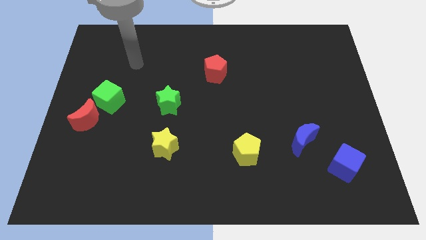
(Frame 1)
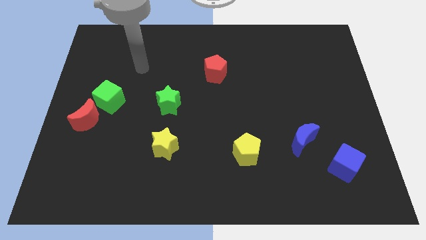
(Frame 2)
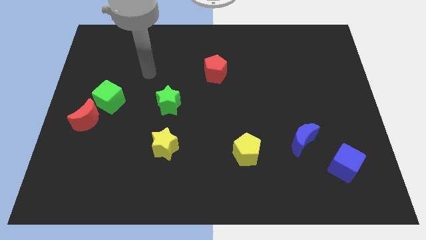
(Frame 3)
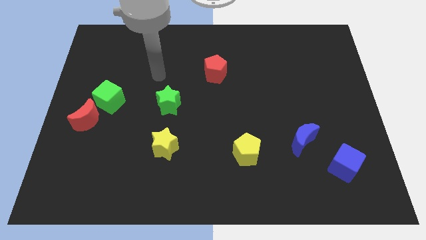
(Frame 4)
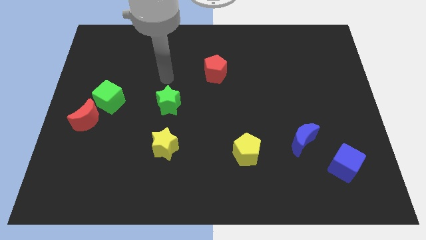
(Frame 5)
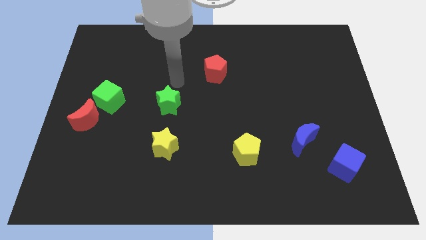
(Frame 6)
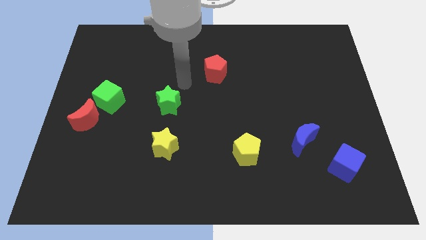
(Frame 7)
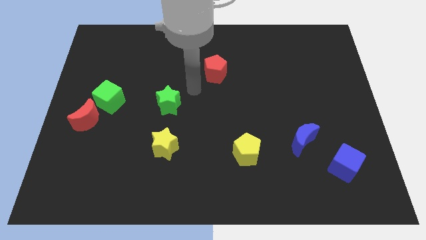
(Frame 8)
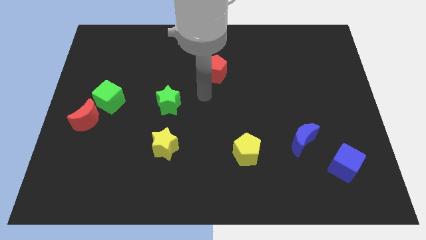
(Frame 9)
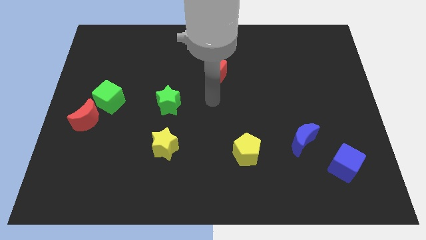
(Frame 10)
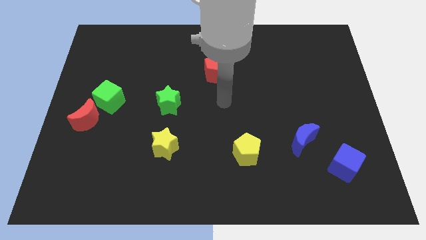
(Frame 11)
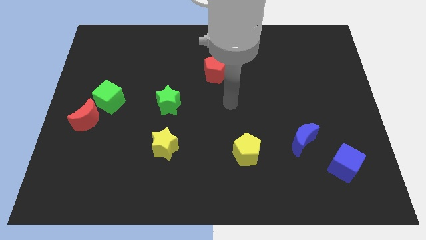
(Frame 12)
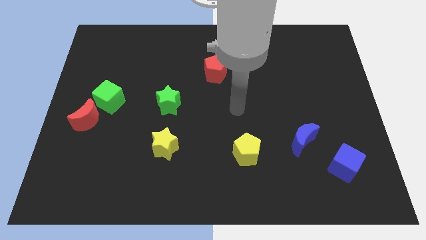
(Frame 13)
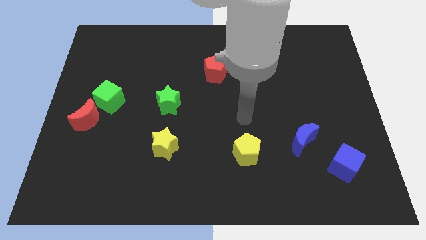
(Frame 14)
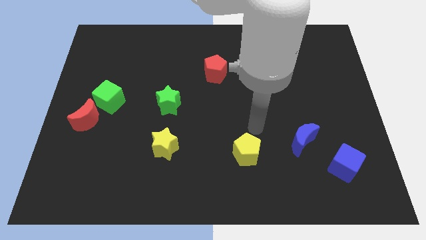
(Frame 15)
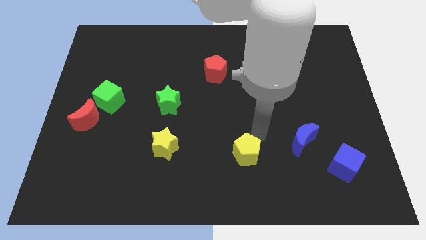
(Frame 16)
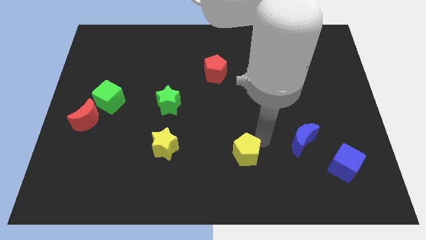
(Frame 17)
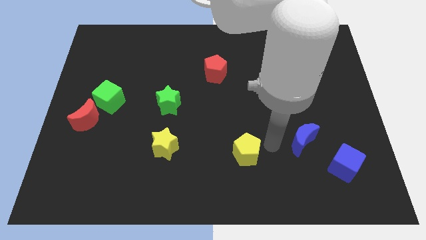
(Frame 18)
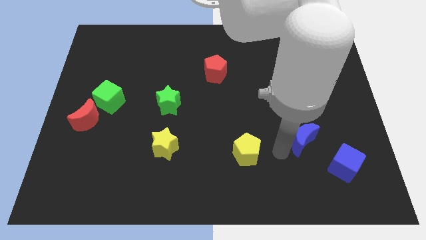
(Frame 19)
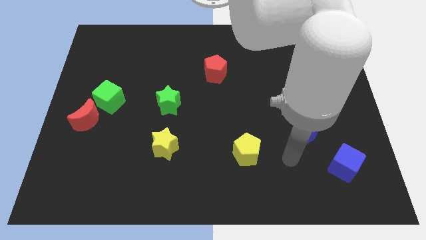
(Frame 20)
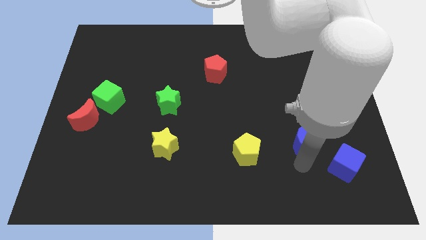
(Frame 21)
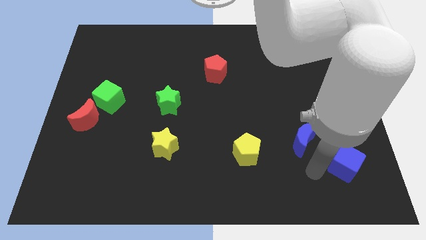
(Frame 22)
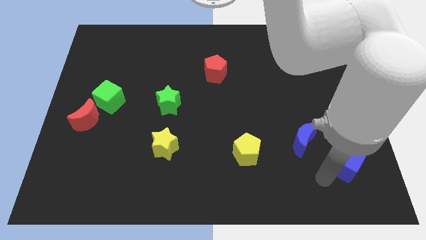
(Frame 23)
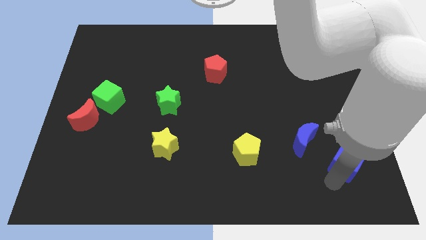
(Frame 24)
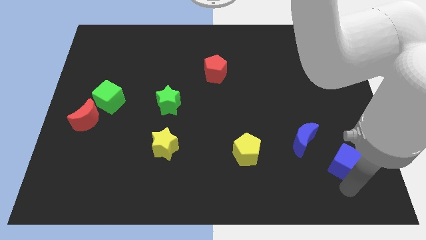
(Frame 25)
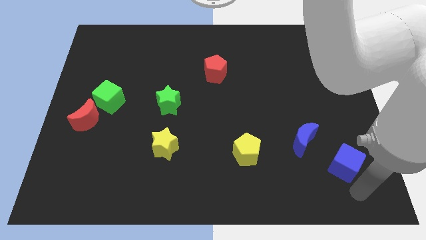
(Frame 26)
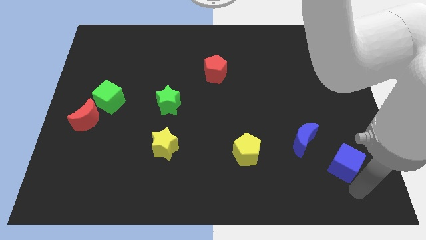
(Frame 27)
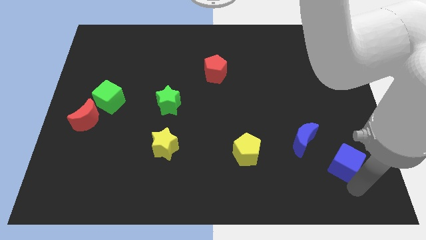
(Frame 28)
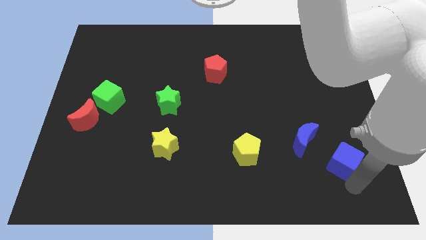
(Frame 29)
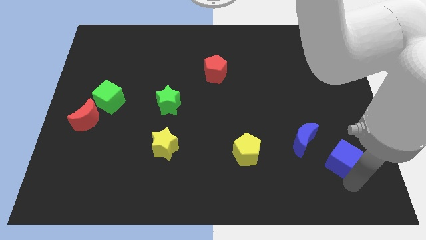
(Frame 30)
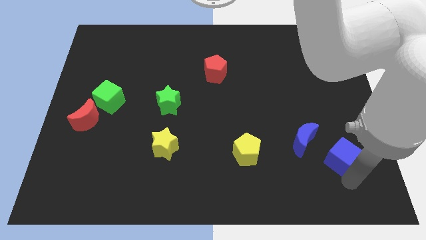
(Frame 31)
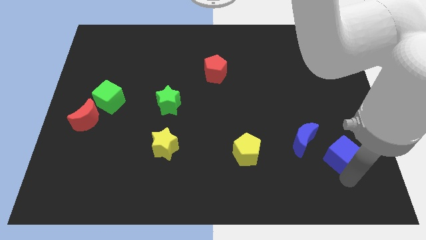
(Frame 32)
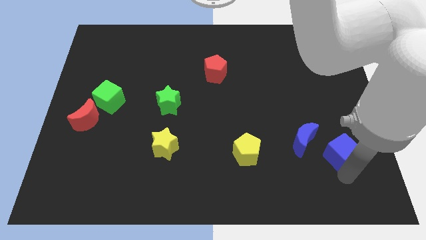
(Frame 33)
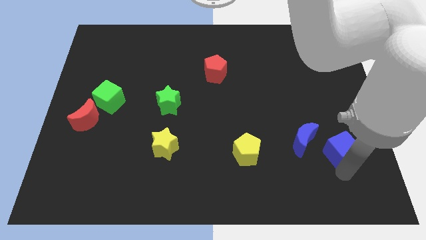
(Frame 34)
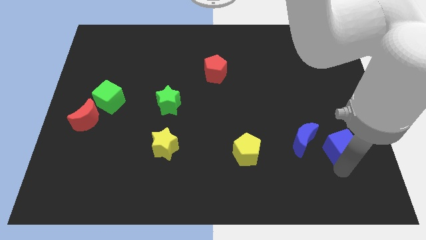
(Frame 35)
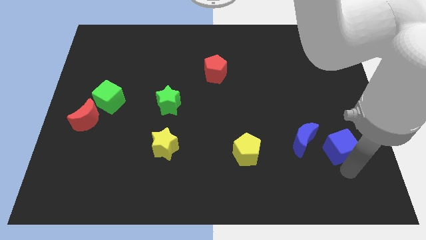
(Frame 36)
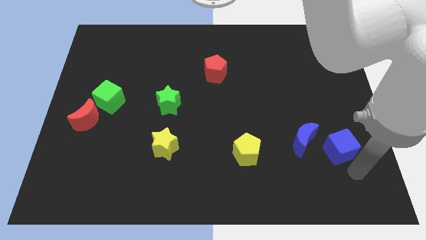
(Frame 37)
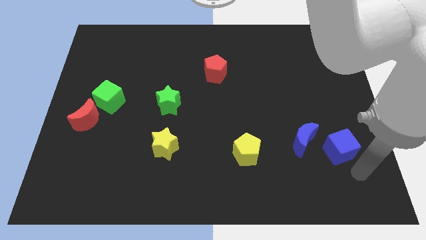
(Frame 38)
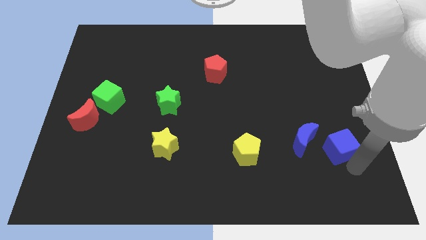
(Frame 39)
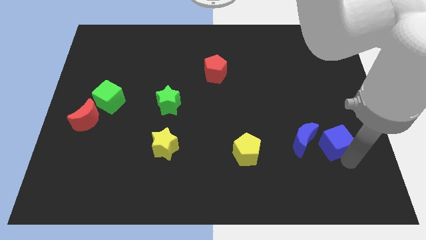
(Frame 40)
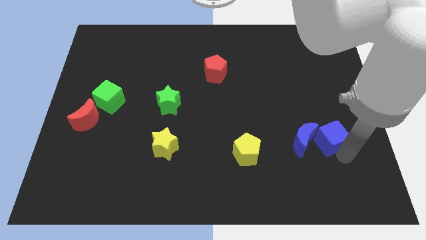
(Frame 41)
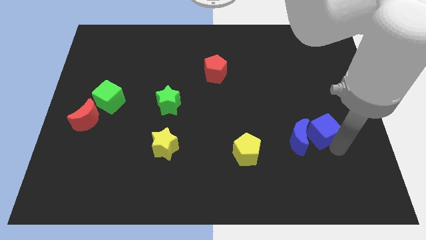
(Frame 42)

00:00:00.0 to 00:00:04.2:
slide the blue cube a little up and then left

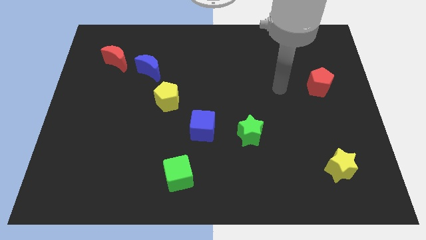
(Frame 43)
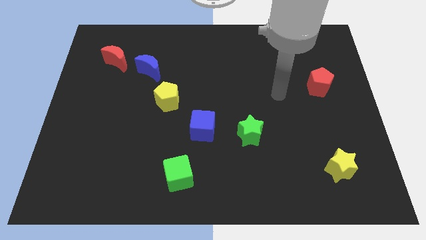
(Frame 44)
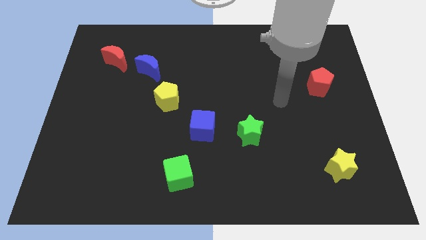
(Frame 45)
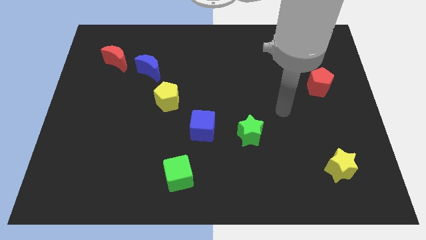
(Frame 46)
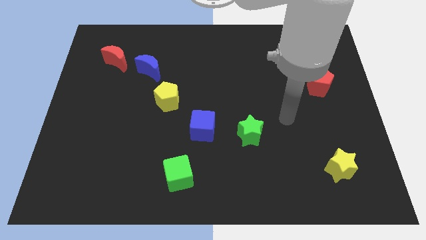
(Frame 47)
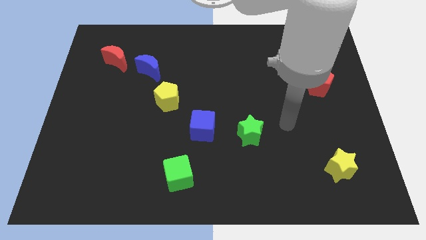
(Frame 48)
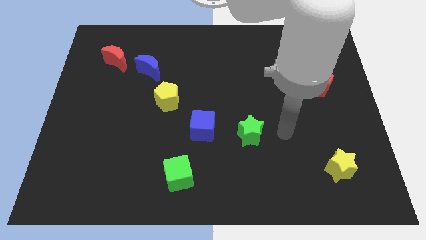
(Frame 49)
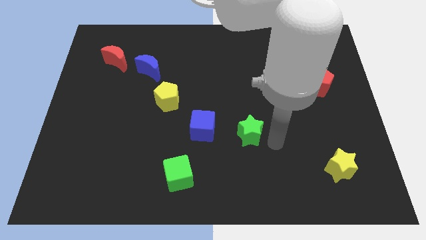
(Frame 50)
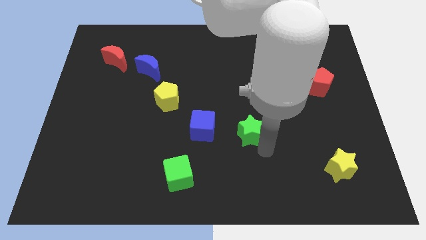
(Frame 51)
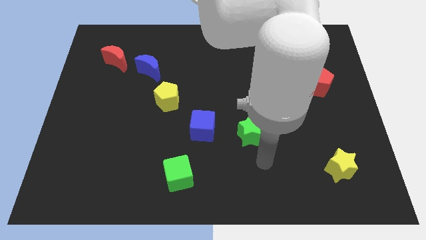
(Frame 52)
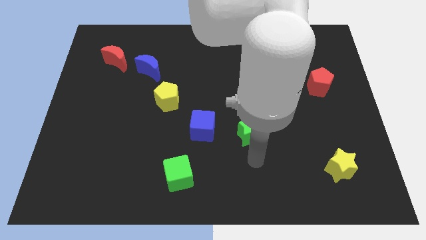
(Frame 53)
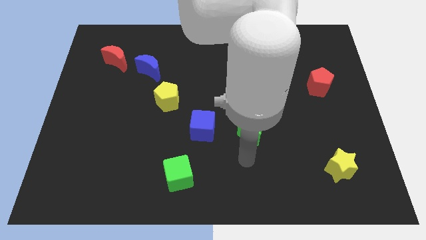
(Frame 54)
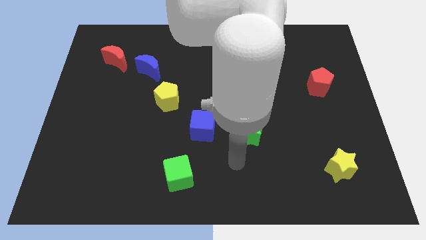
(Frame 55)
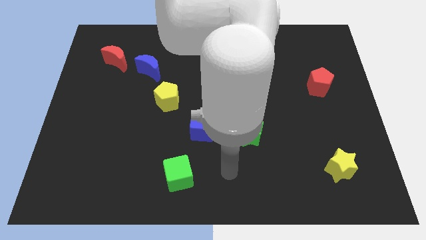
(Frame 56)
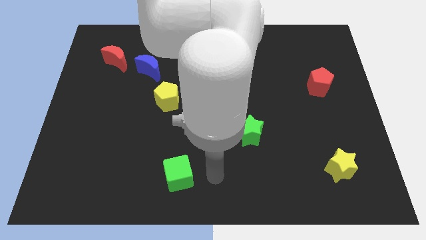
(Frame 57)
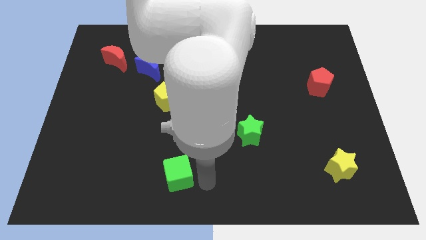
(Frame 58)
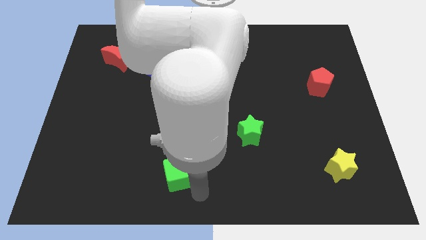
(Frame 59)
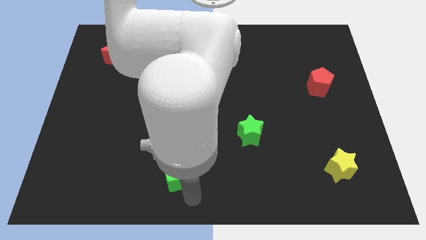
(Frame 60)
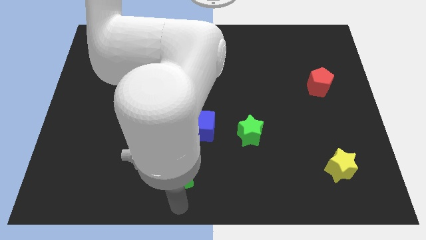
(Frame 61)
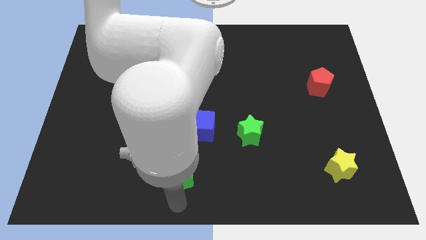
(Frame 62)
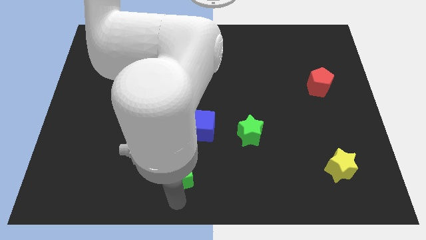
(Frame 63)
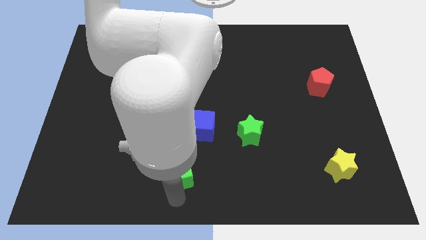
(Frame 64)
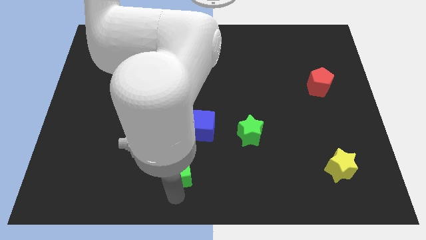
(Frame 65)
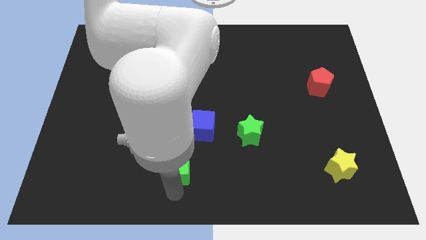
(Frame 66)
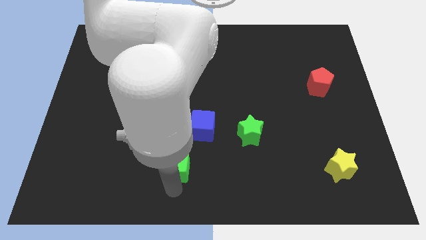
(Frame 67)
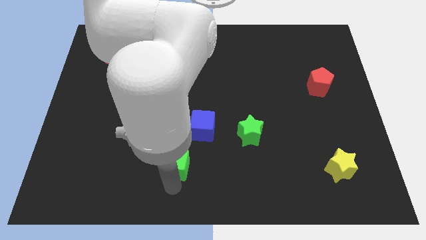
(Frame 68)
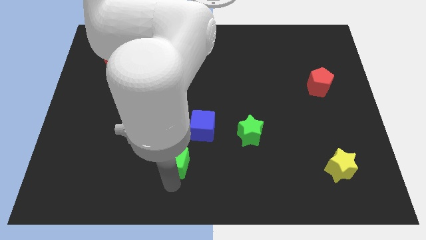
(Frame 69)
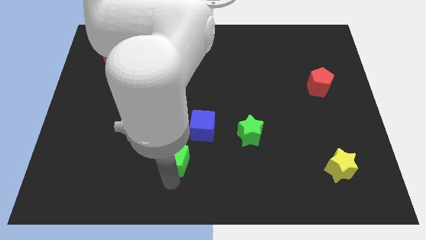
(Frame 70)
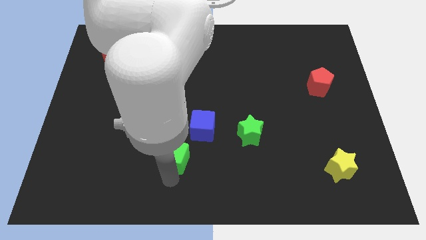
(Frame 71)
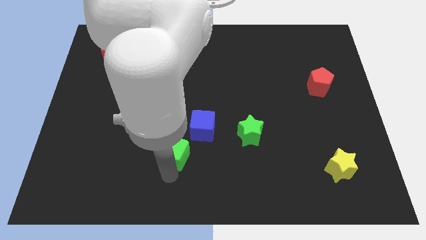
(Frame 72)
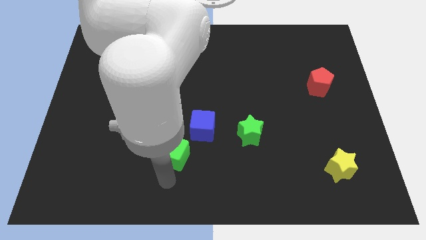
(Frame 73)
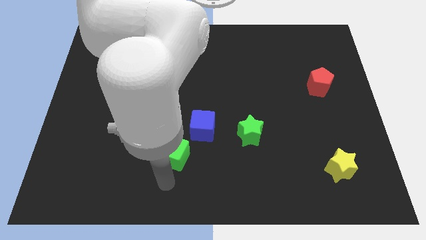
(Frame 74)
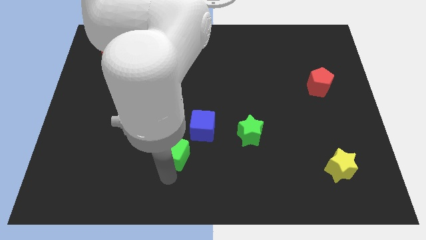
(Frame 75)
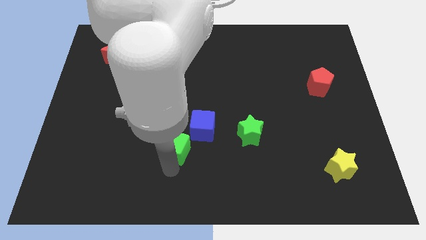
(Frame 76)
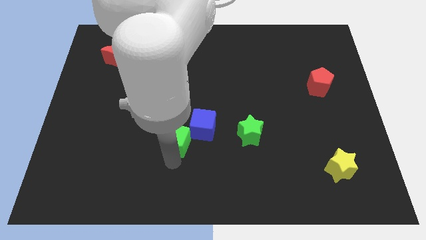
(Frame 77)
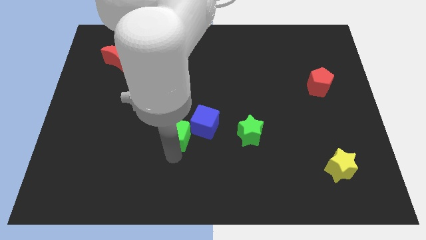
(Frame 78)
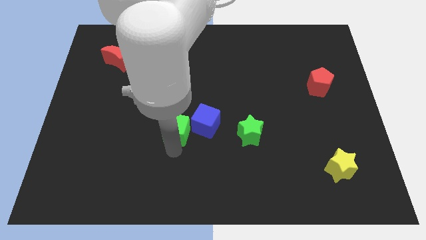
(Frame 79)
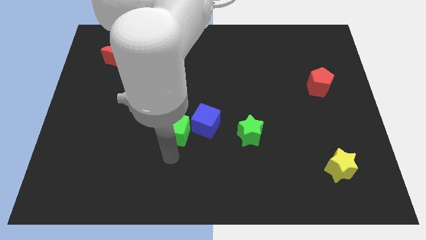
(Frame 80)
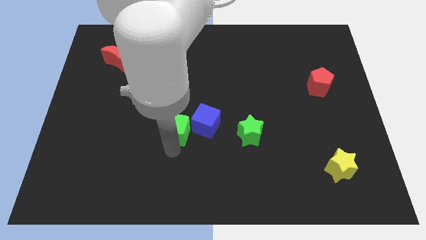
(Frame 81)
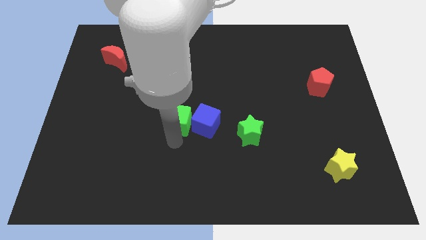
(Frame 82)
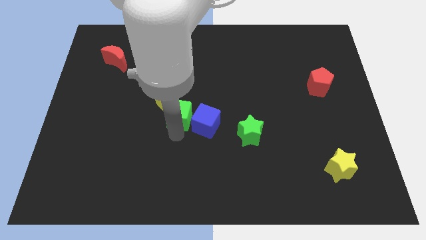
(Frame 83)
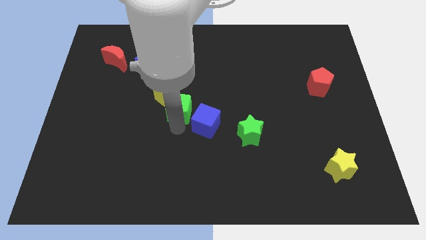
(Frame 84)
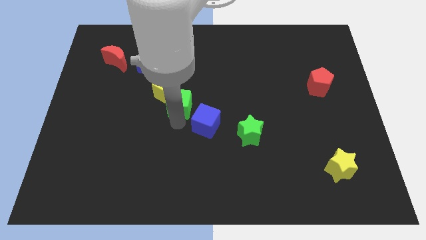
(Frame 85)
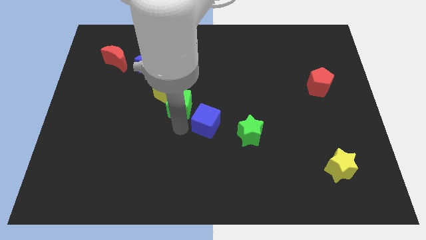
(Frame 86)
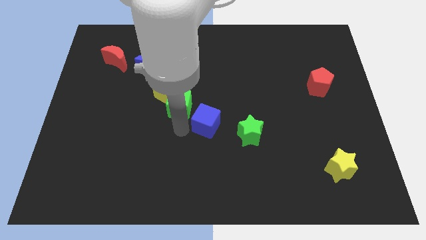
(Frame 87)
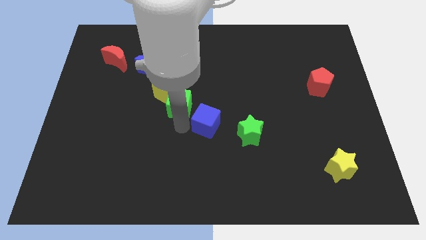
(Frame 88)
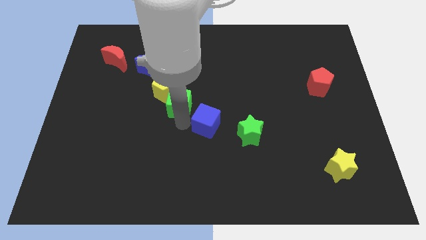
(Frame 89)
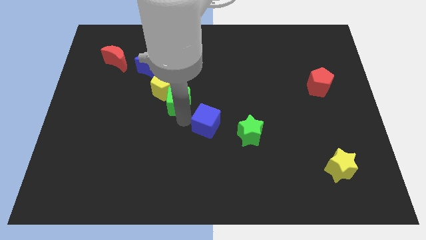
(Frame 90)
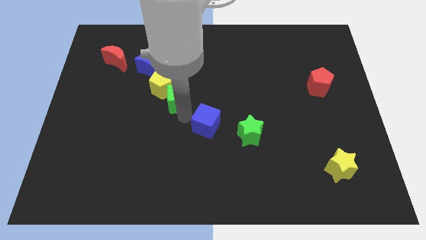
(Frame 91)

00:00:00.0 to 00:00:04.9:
move the green cube upwards
